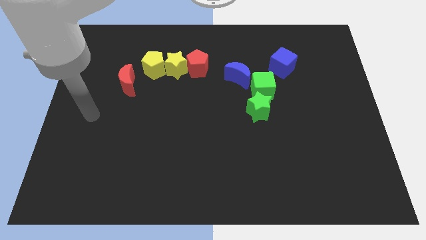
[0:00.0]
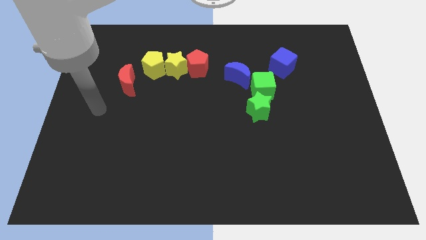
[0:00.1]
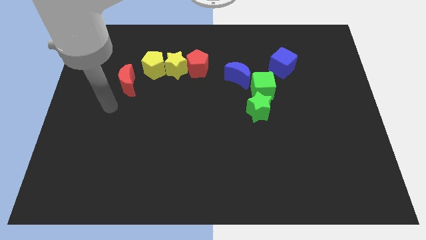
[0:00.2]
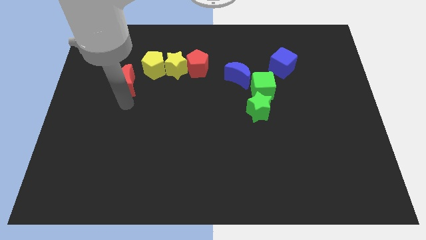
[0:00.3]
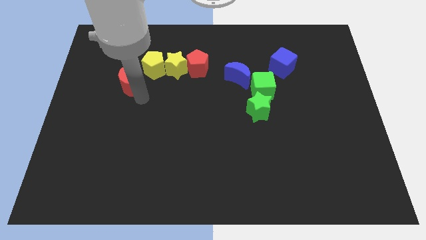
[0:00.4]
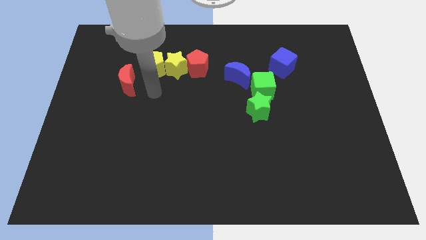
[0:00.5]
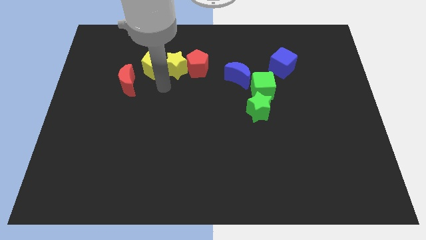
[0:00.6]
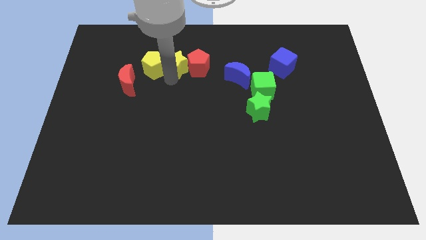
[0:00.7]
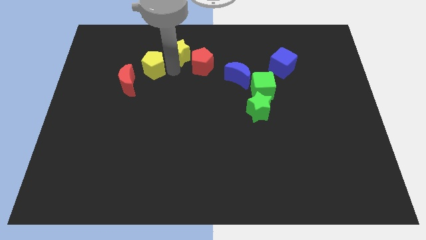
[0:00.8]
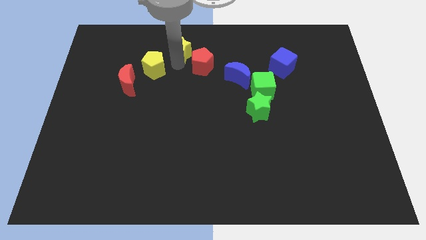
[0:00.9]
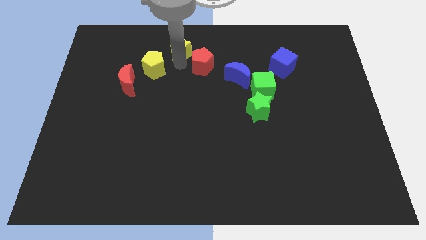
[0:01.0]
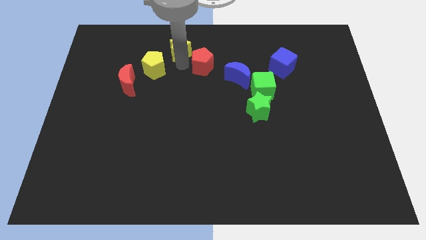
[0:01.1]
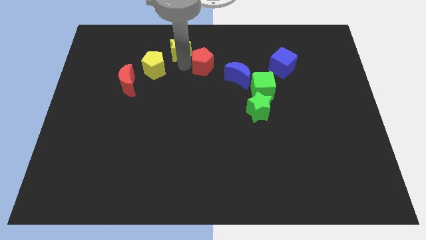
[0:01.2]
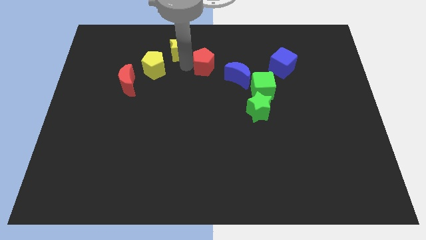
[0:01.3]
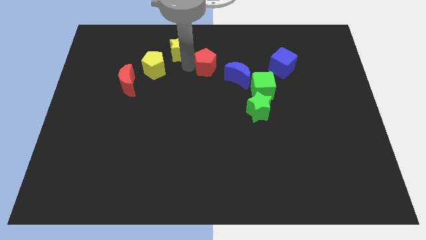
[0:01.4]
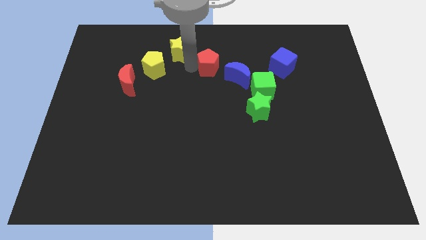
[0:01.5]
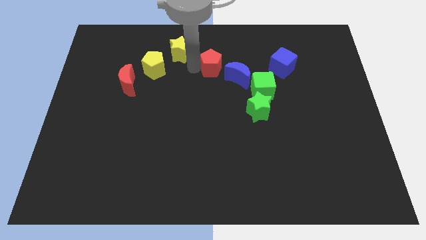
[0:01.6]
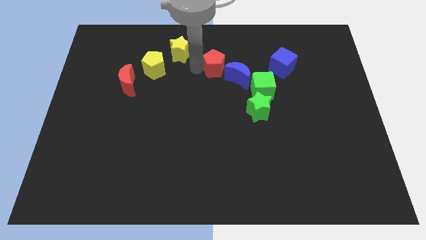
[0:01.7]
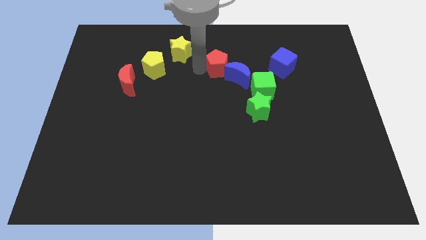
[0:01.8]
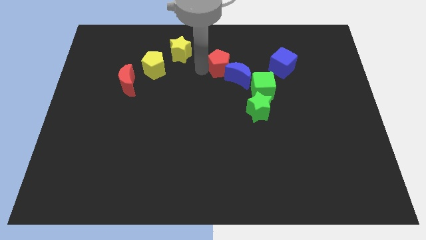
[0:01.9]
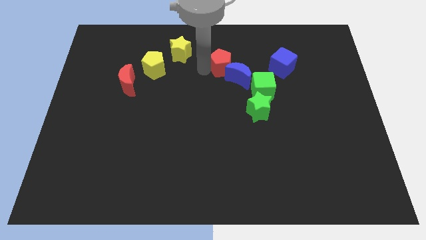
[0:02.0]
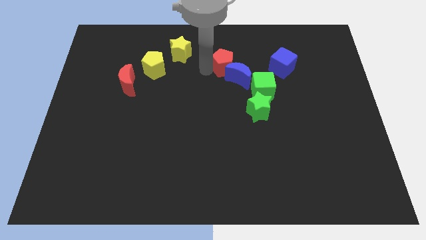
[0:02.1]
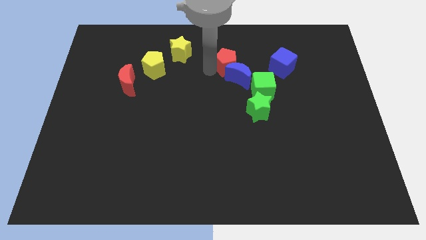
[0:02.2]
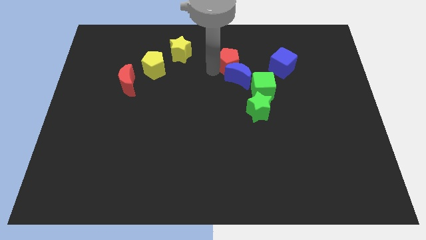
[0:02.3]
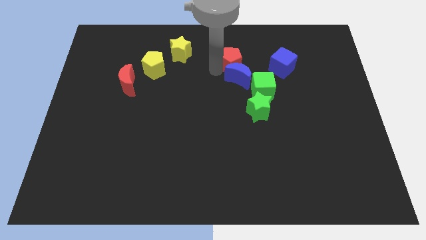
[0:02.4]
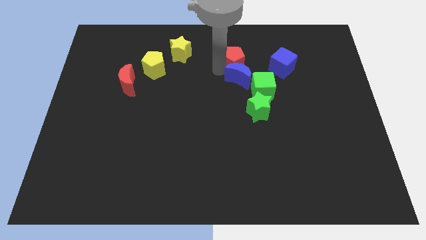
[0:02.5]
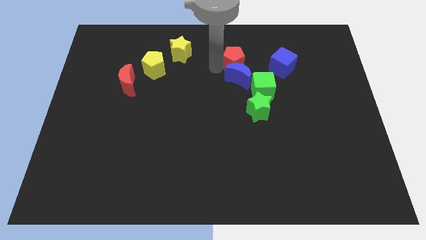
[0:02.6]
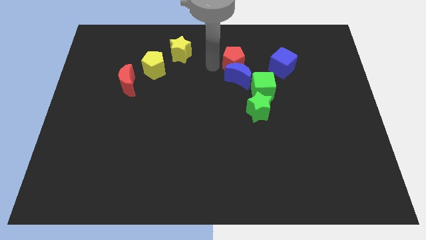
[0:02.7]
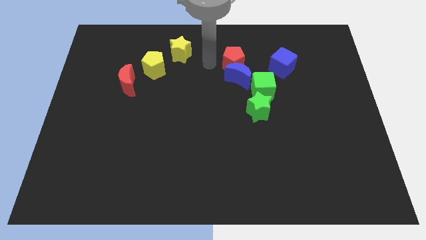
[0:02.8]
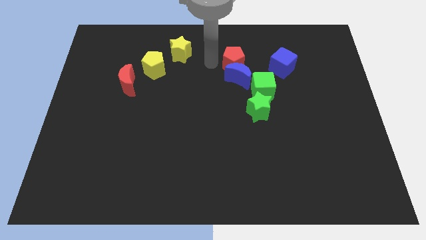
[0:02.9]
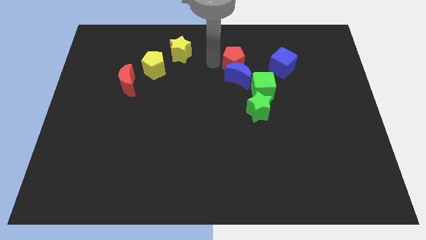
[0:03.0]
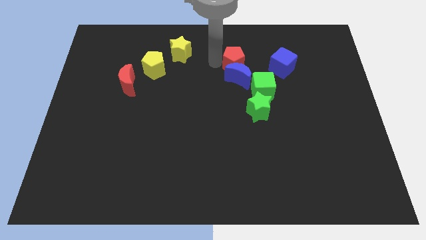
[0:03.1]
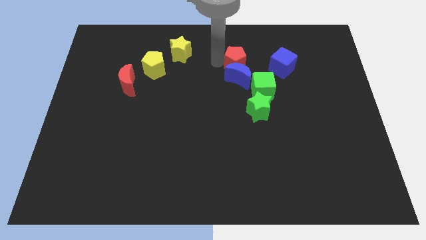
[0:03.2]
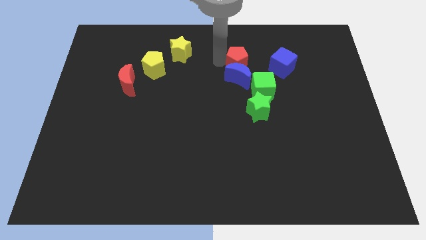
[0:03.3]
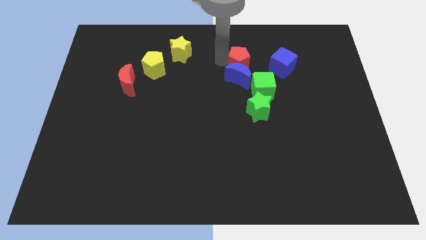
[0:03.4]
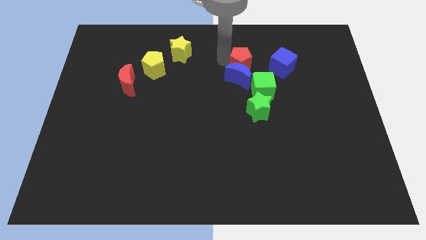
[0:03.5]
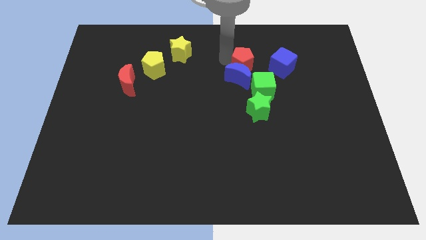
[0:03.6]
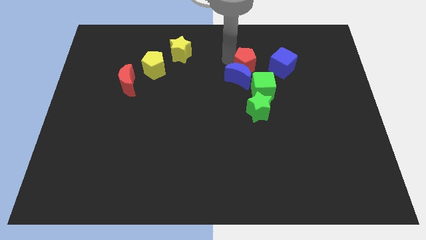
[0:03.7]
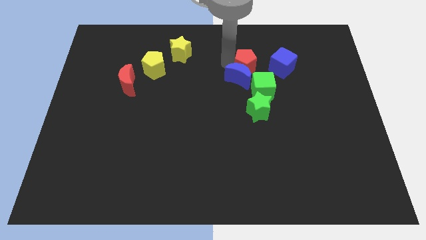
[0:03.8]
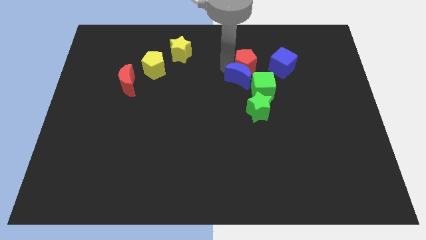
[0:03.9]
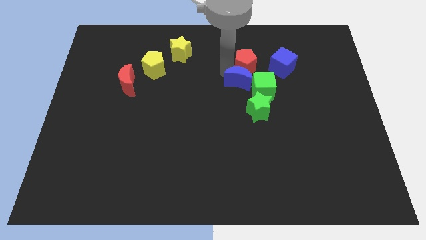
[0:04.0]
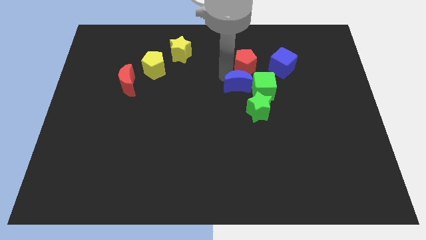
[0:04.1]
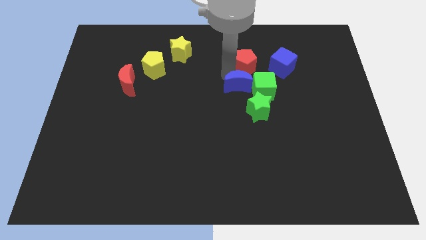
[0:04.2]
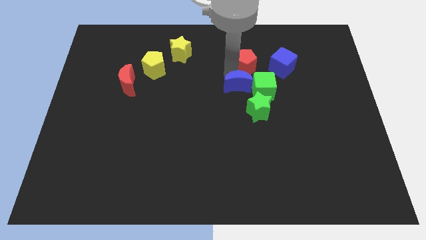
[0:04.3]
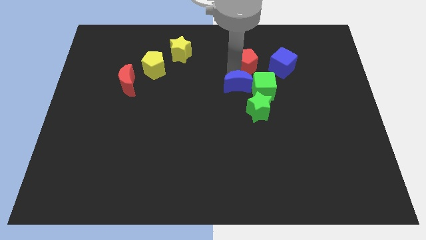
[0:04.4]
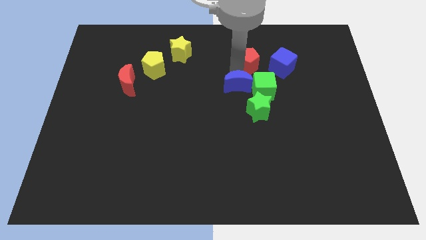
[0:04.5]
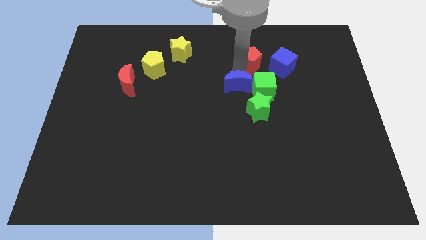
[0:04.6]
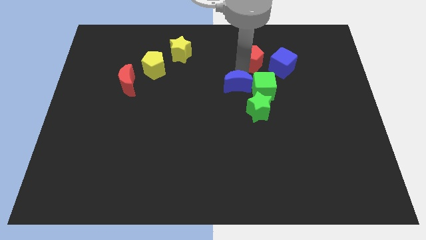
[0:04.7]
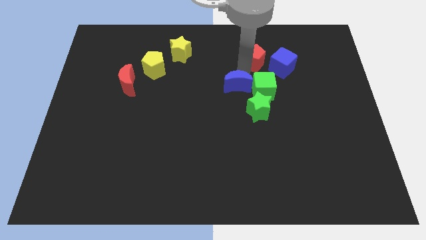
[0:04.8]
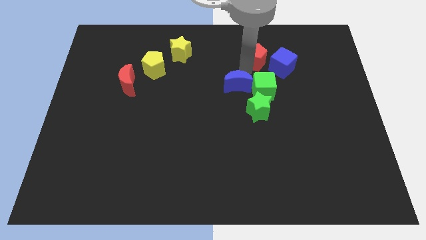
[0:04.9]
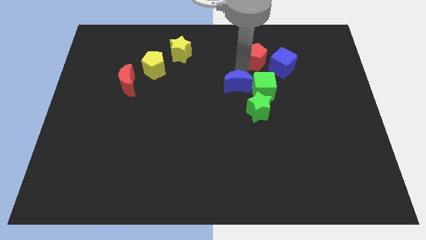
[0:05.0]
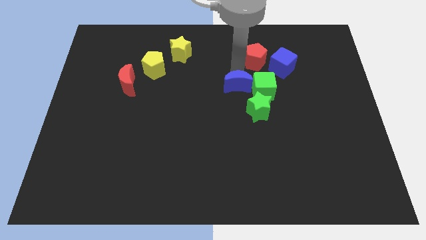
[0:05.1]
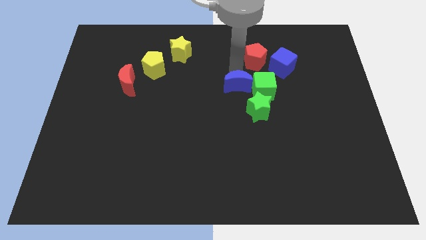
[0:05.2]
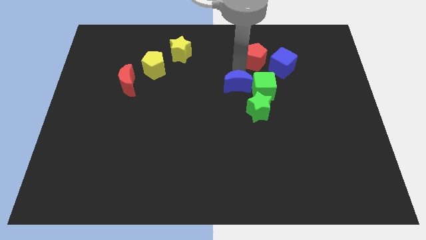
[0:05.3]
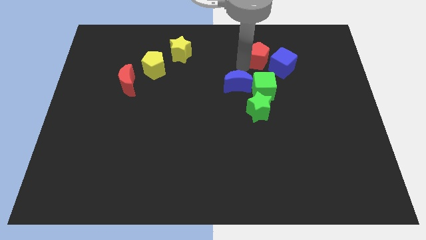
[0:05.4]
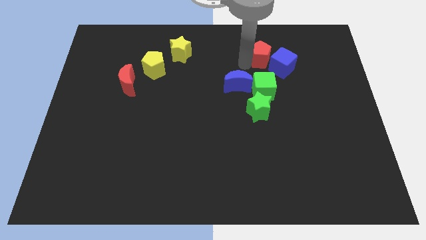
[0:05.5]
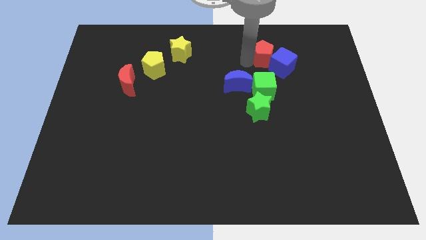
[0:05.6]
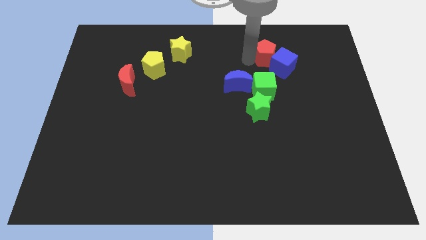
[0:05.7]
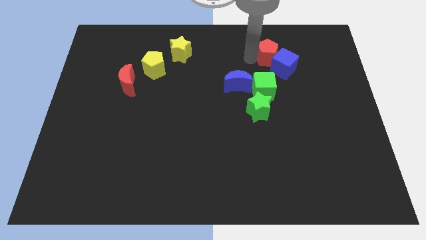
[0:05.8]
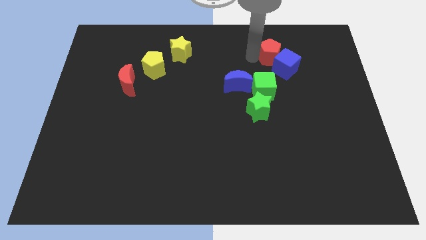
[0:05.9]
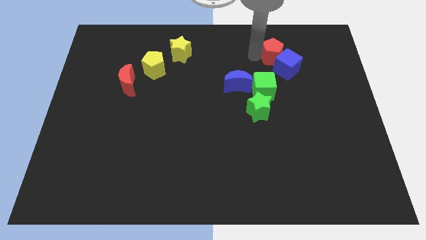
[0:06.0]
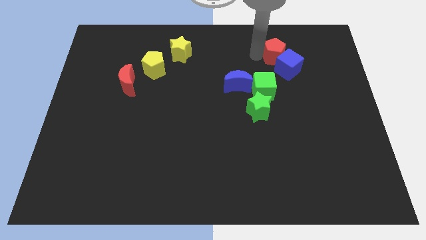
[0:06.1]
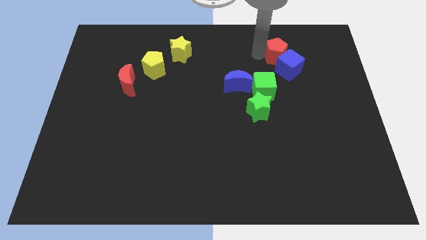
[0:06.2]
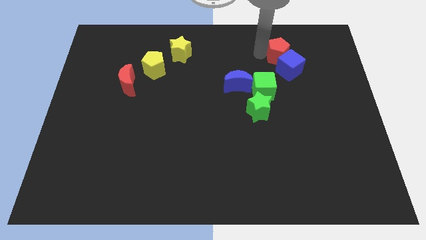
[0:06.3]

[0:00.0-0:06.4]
move the red pentagon to the right

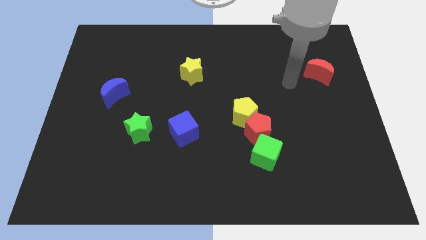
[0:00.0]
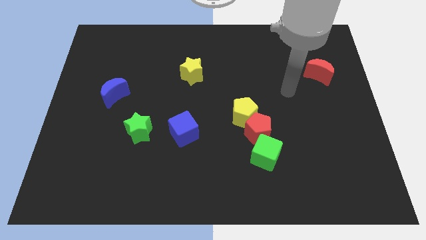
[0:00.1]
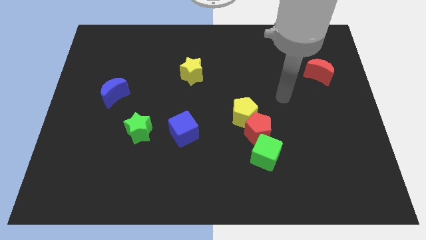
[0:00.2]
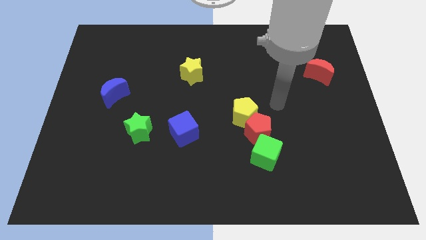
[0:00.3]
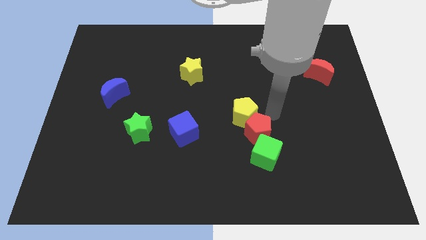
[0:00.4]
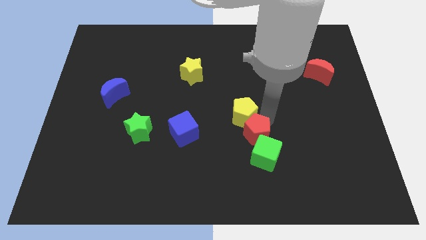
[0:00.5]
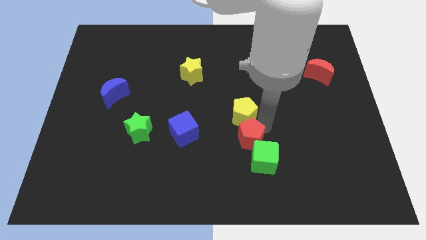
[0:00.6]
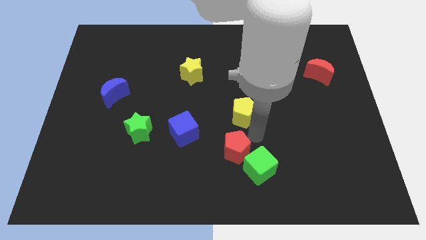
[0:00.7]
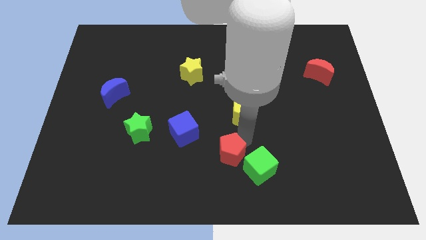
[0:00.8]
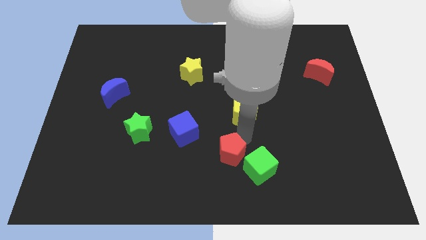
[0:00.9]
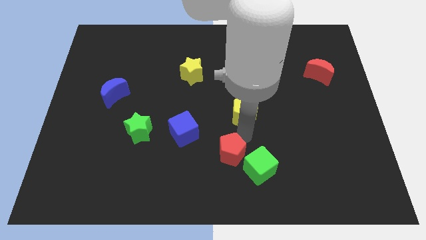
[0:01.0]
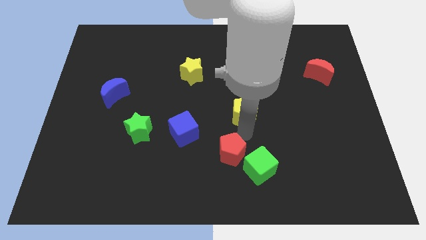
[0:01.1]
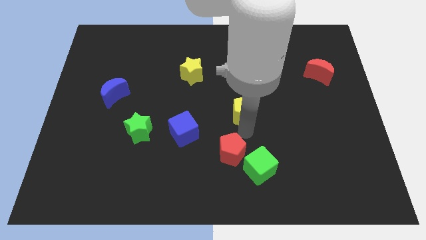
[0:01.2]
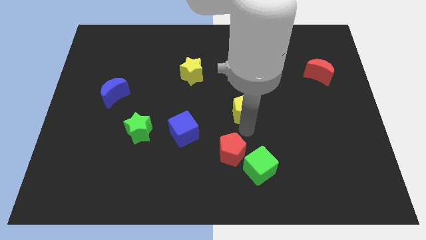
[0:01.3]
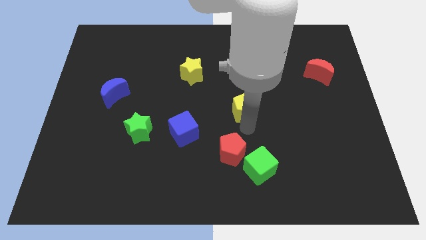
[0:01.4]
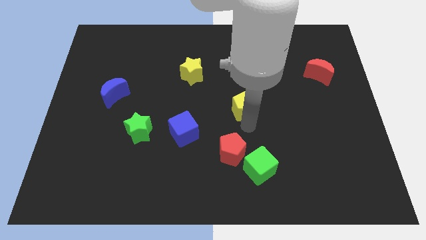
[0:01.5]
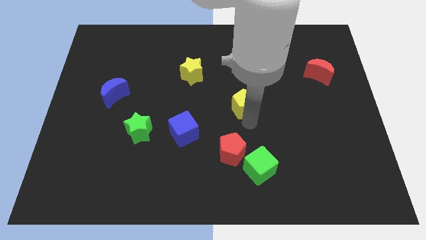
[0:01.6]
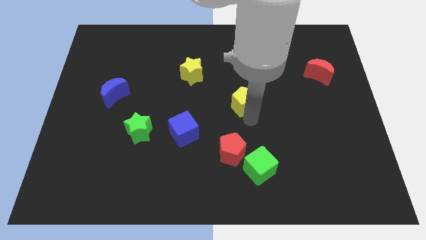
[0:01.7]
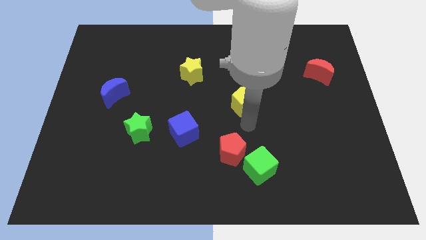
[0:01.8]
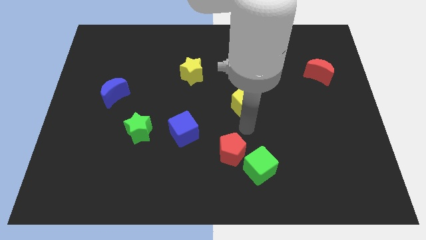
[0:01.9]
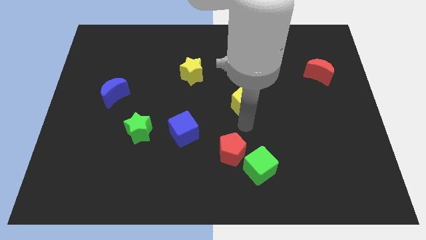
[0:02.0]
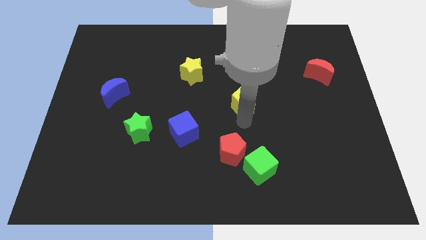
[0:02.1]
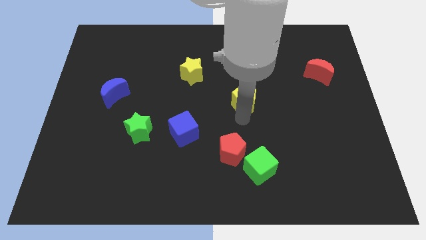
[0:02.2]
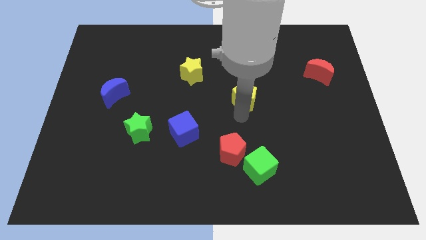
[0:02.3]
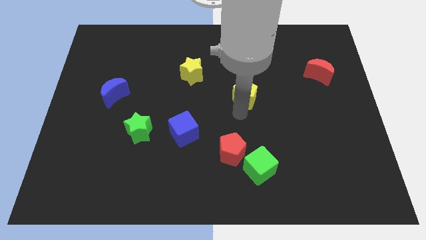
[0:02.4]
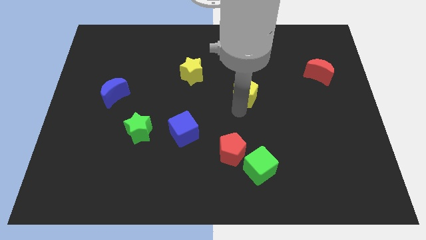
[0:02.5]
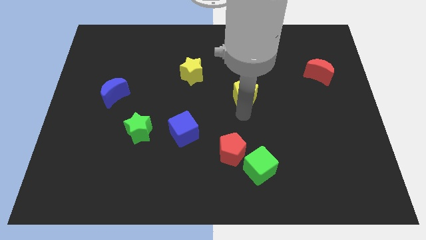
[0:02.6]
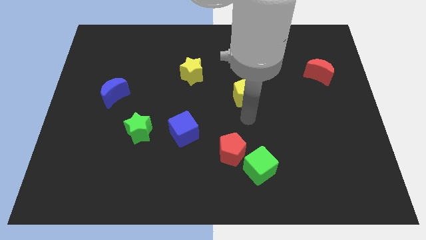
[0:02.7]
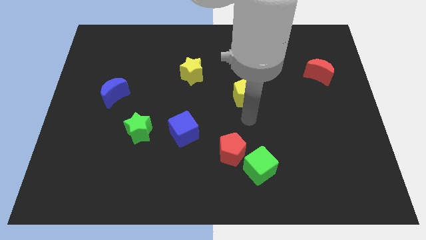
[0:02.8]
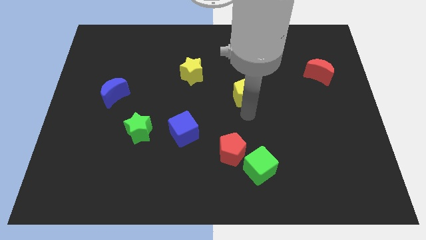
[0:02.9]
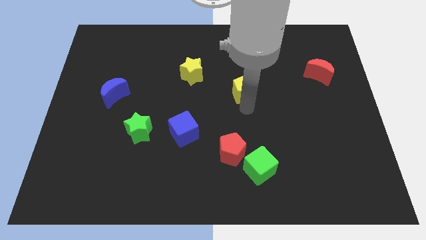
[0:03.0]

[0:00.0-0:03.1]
slide the yellow pentagon somewhat up
